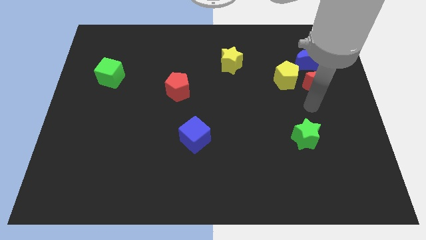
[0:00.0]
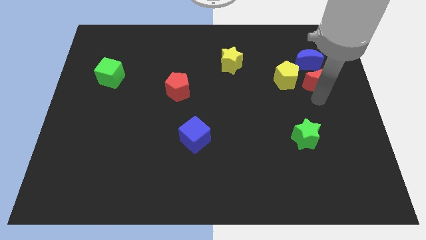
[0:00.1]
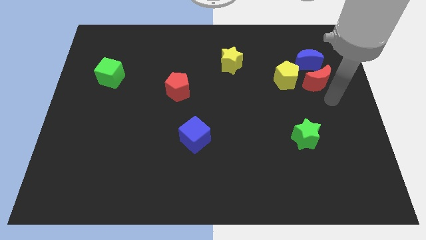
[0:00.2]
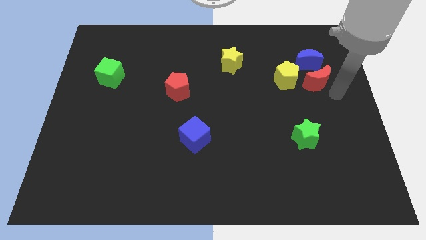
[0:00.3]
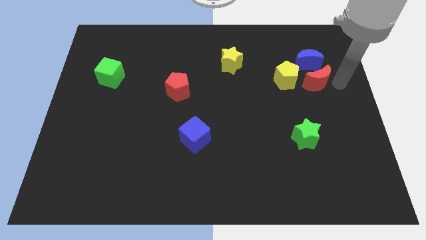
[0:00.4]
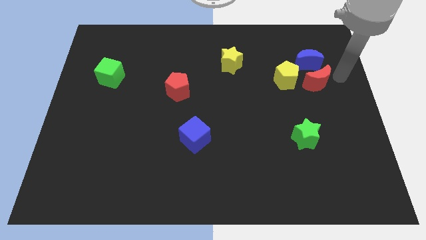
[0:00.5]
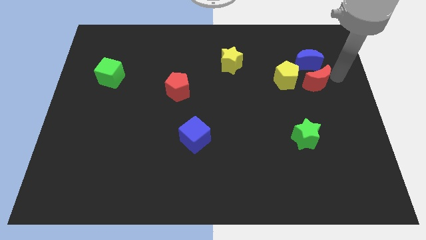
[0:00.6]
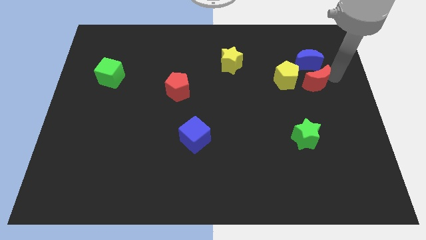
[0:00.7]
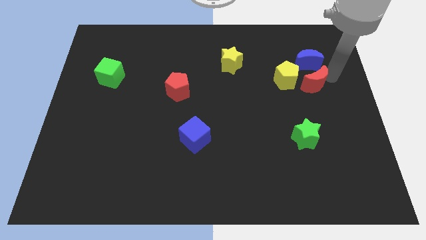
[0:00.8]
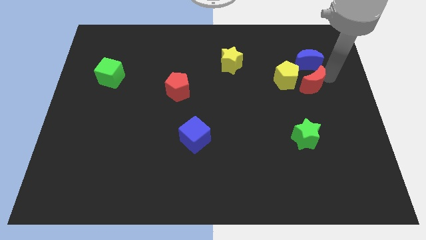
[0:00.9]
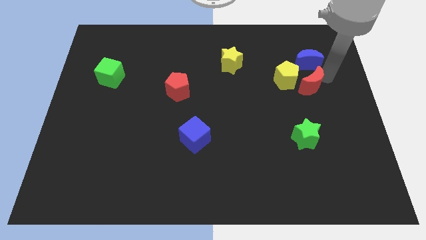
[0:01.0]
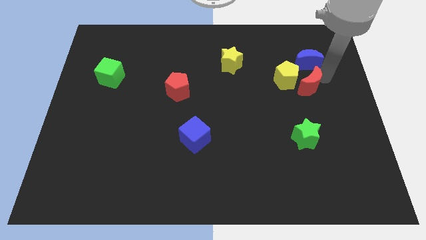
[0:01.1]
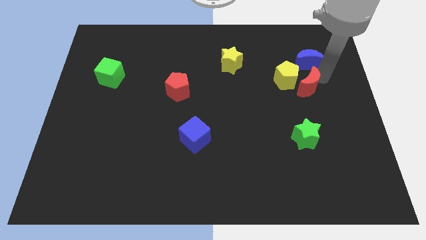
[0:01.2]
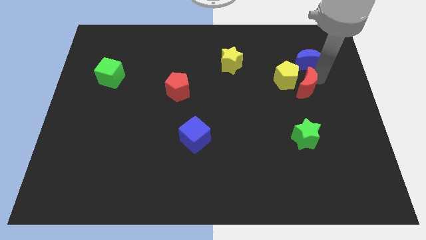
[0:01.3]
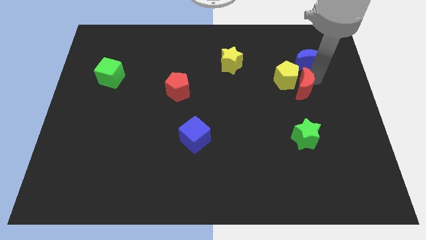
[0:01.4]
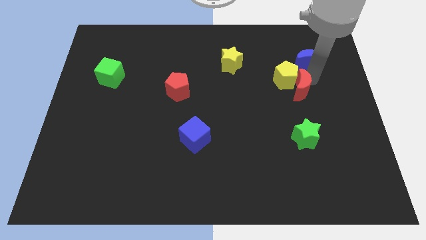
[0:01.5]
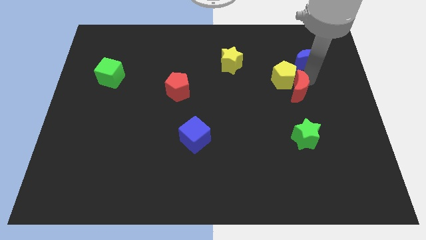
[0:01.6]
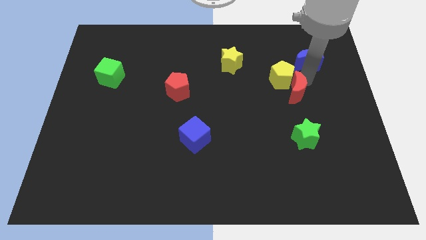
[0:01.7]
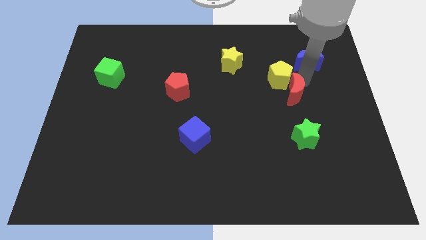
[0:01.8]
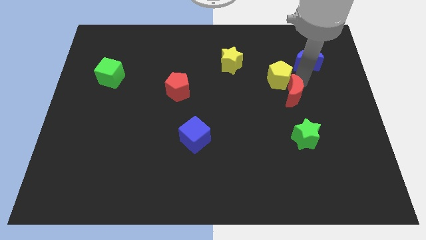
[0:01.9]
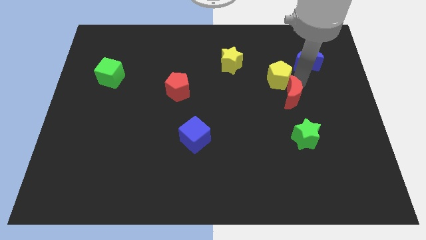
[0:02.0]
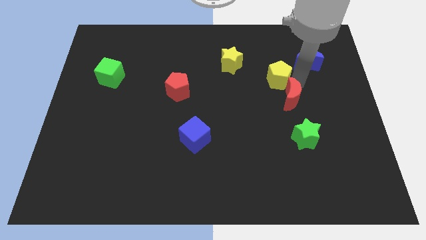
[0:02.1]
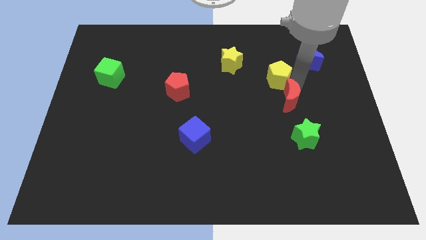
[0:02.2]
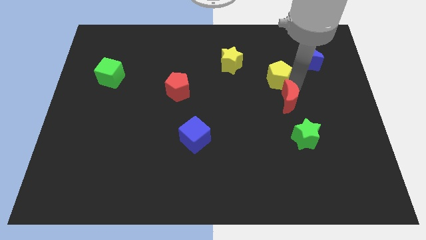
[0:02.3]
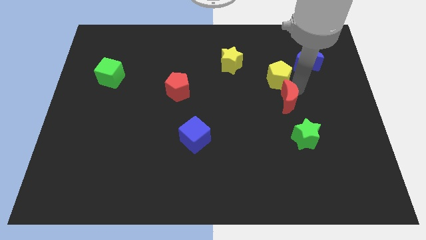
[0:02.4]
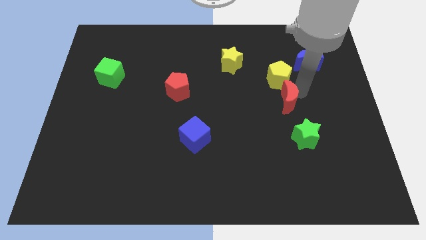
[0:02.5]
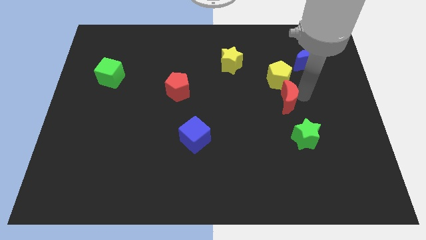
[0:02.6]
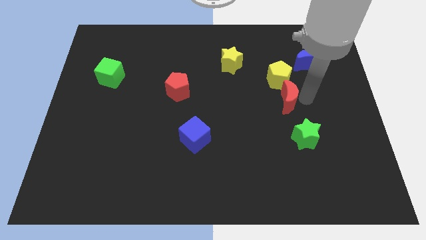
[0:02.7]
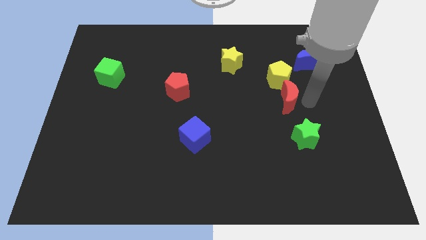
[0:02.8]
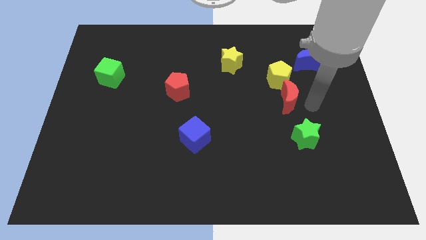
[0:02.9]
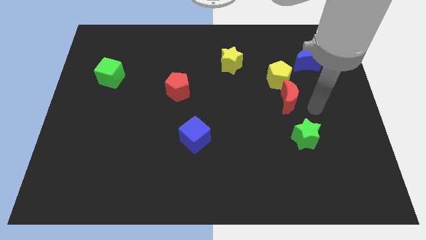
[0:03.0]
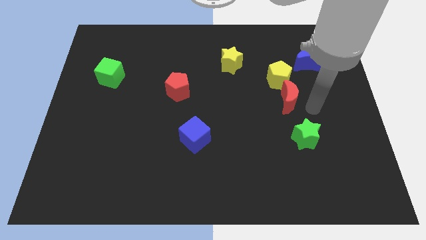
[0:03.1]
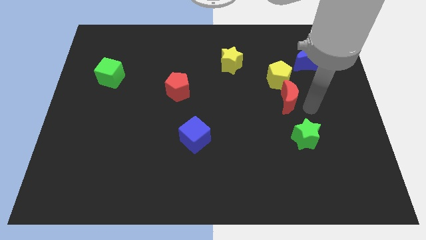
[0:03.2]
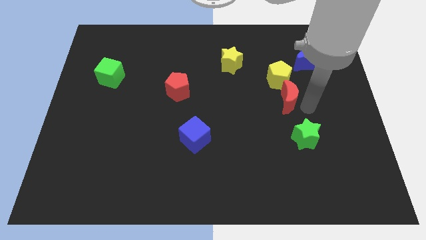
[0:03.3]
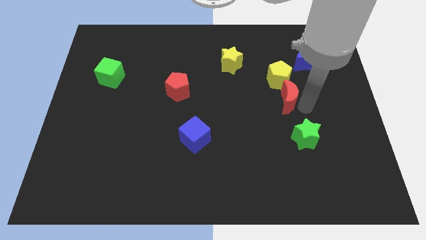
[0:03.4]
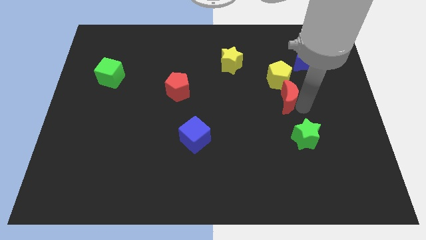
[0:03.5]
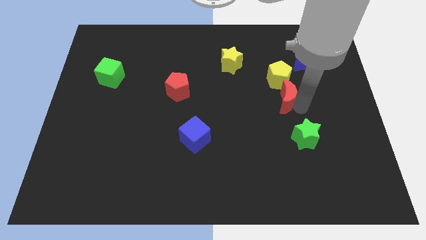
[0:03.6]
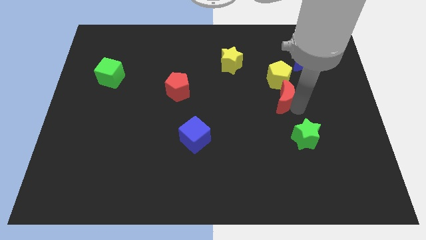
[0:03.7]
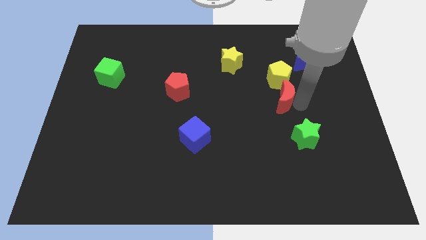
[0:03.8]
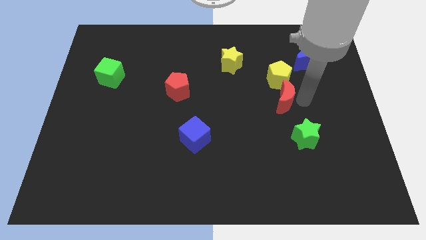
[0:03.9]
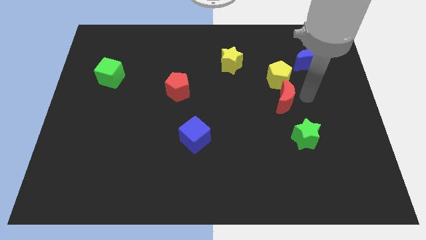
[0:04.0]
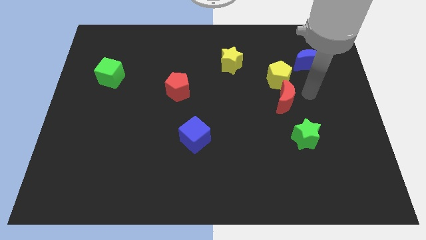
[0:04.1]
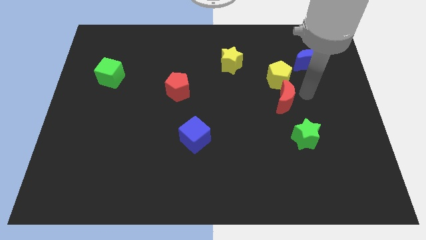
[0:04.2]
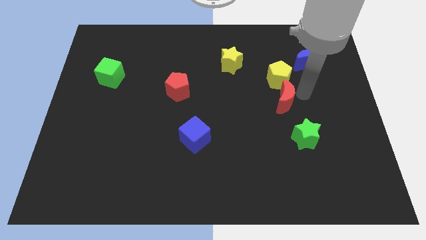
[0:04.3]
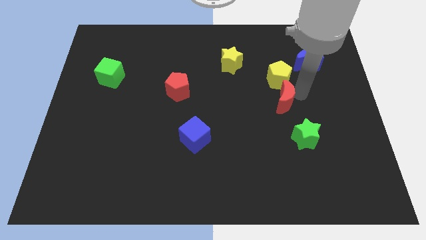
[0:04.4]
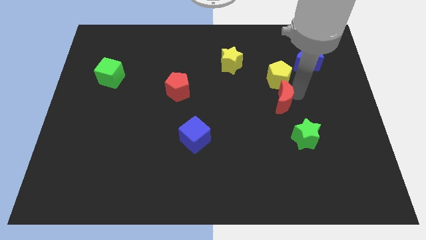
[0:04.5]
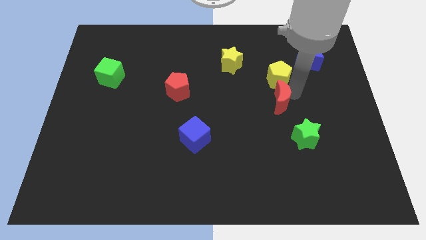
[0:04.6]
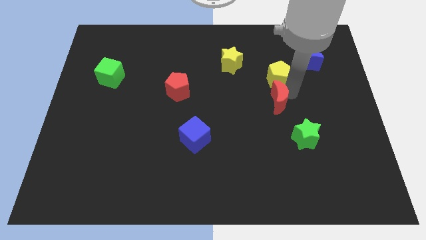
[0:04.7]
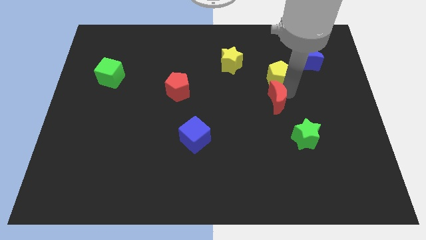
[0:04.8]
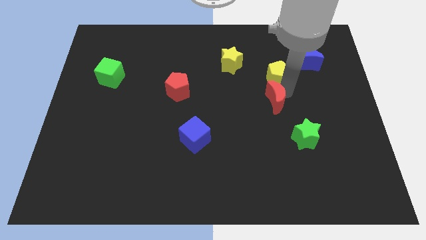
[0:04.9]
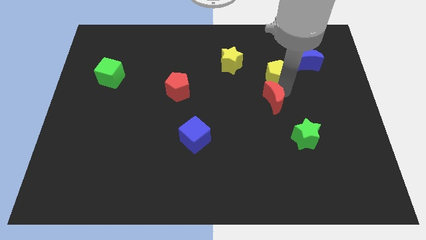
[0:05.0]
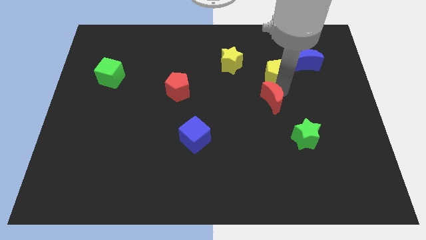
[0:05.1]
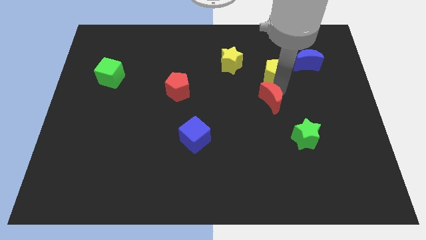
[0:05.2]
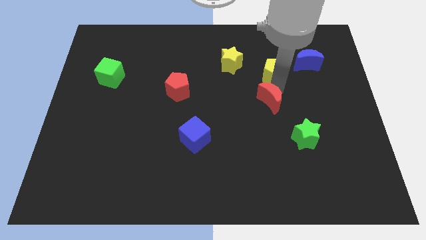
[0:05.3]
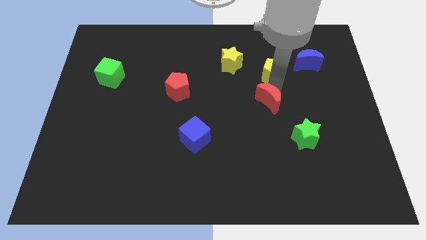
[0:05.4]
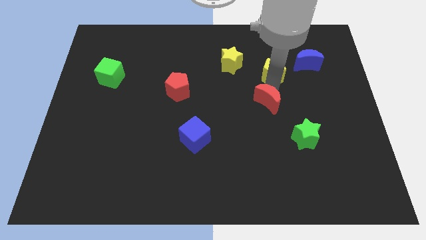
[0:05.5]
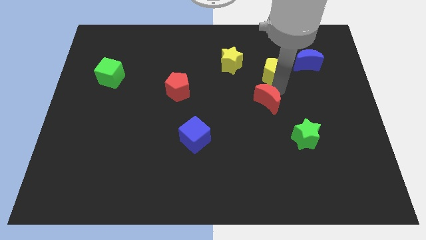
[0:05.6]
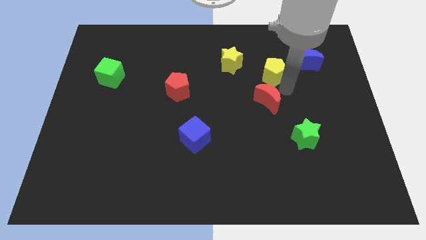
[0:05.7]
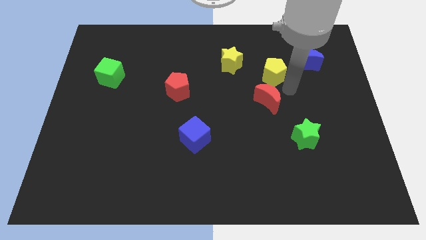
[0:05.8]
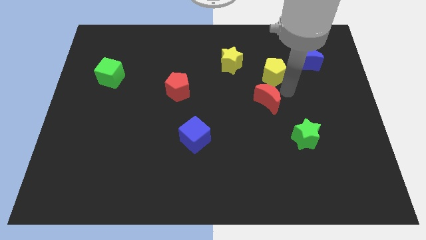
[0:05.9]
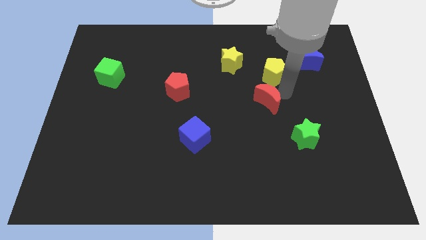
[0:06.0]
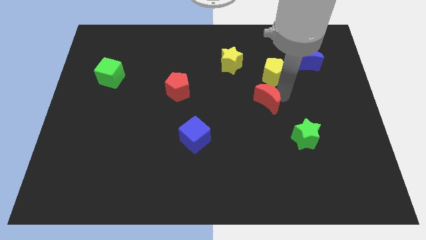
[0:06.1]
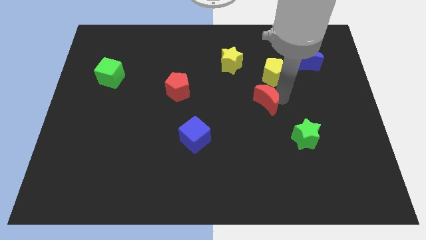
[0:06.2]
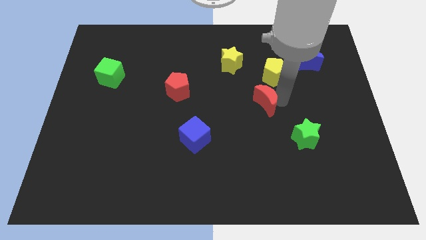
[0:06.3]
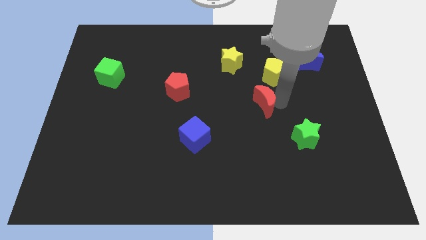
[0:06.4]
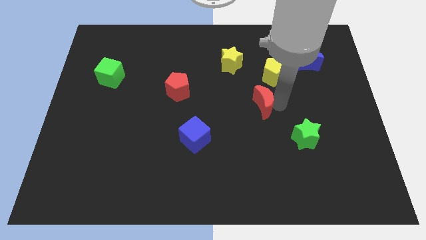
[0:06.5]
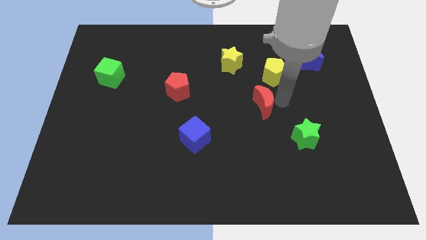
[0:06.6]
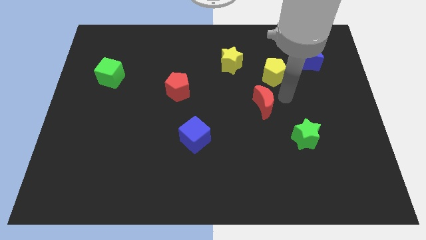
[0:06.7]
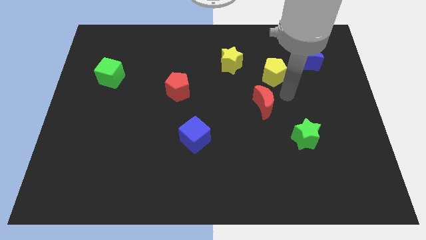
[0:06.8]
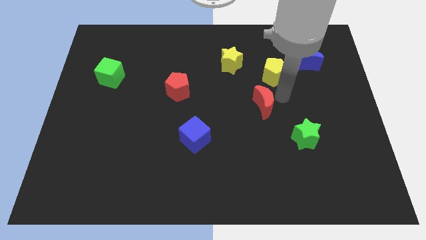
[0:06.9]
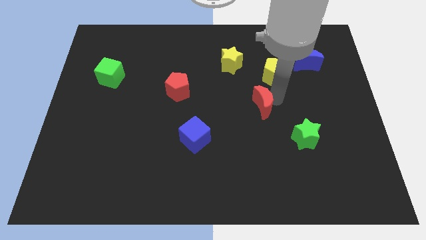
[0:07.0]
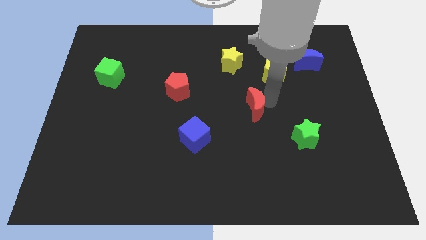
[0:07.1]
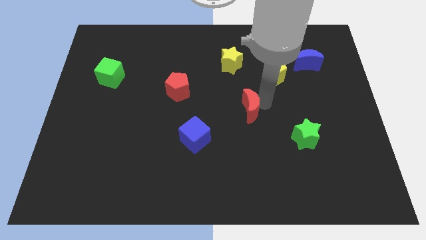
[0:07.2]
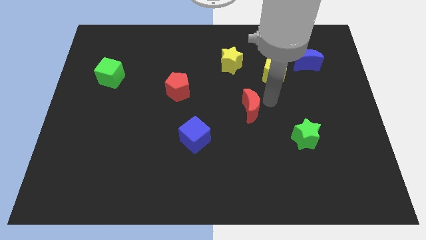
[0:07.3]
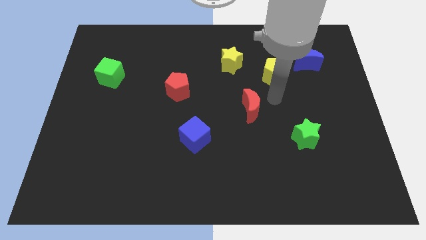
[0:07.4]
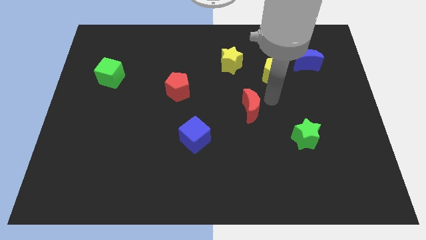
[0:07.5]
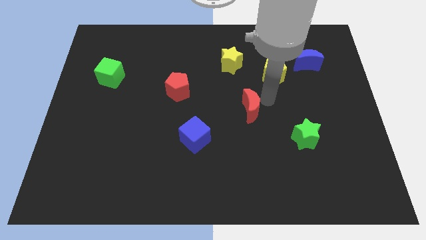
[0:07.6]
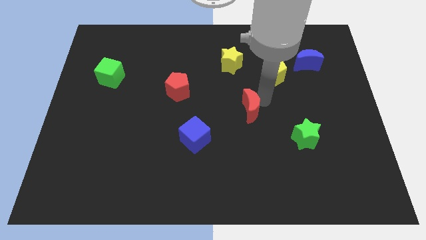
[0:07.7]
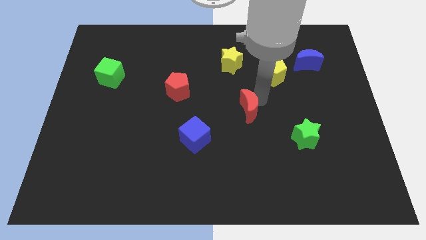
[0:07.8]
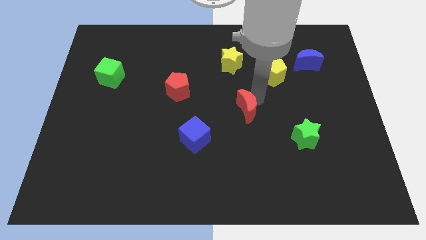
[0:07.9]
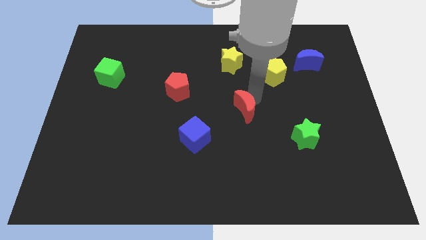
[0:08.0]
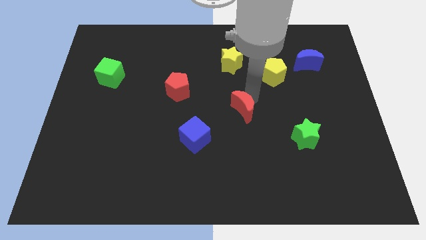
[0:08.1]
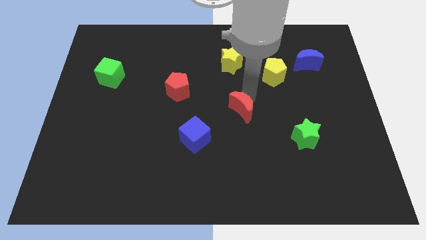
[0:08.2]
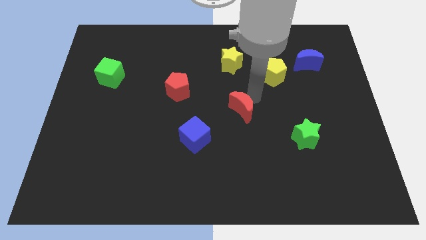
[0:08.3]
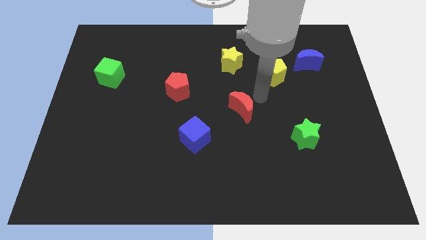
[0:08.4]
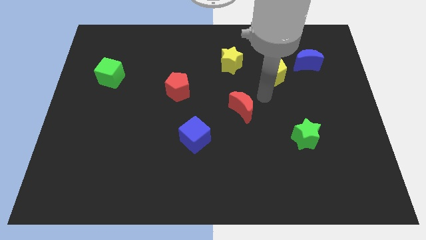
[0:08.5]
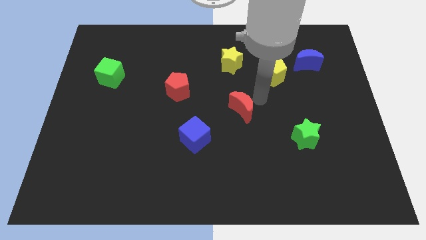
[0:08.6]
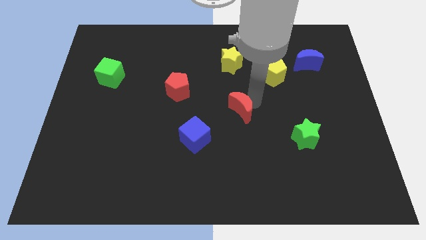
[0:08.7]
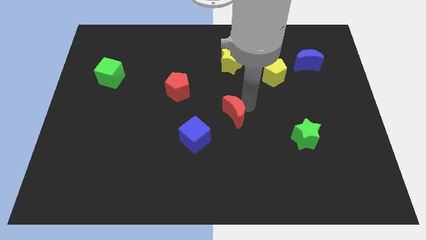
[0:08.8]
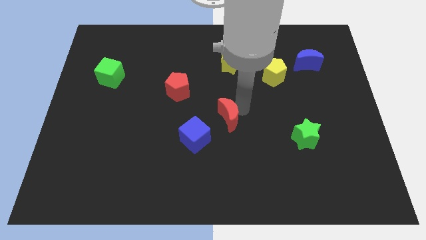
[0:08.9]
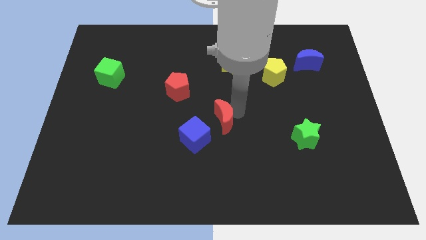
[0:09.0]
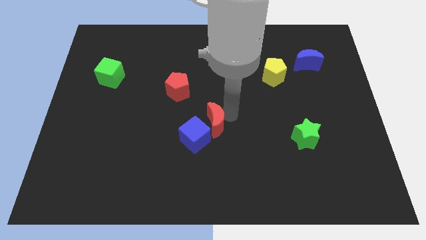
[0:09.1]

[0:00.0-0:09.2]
slide the red moon to the blue cube
